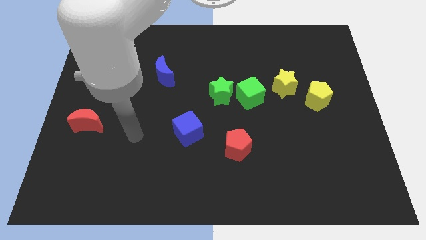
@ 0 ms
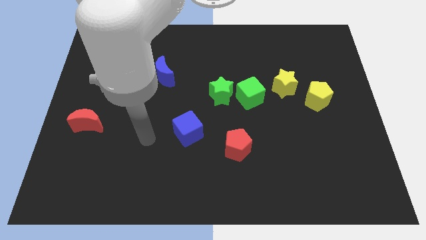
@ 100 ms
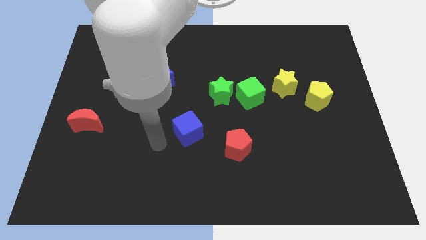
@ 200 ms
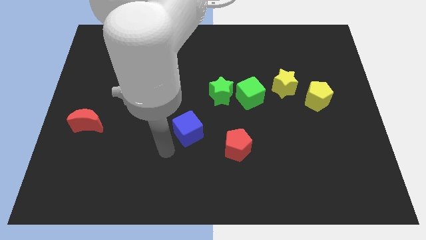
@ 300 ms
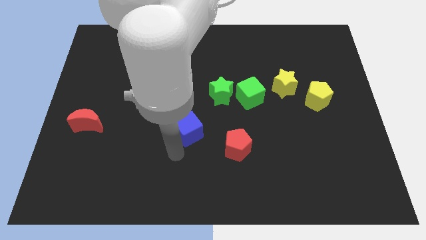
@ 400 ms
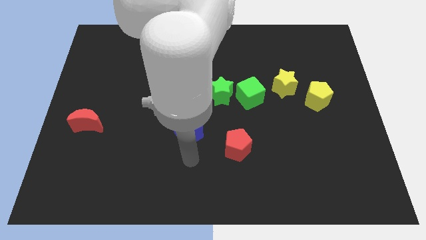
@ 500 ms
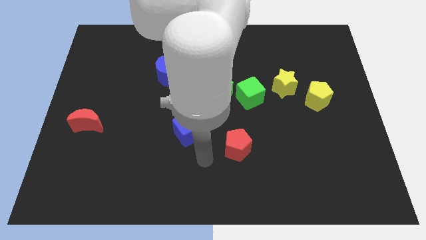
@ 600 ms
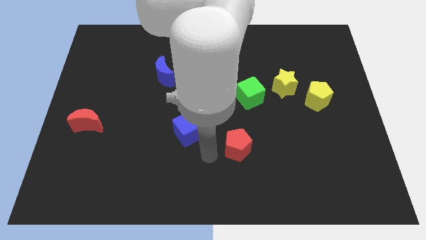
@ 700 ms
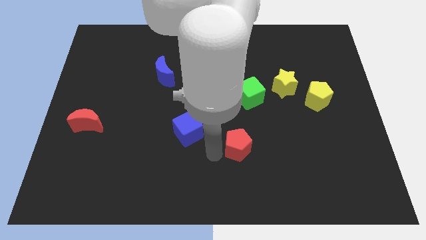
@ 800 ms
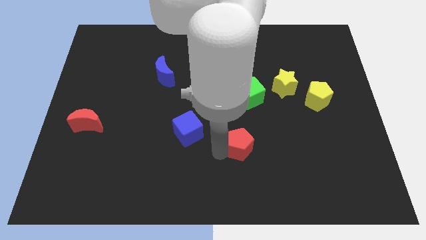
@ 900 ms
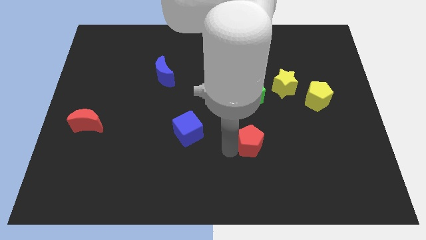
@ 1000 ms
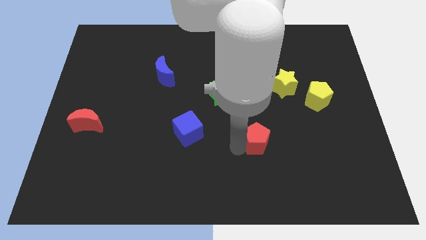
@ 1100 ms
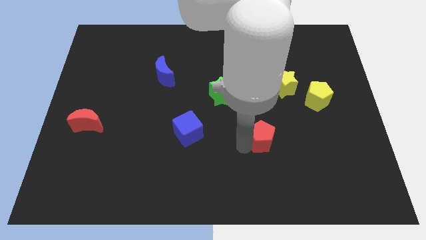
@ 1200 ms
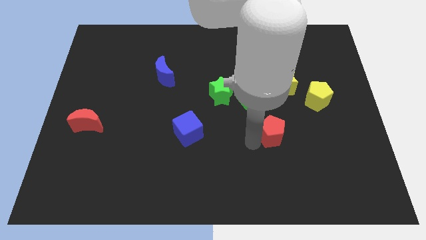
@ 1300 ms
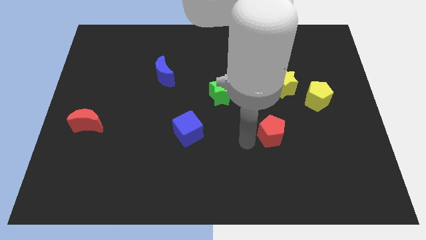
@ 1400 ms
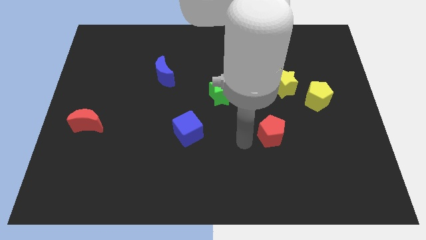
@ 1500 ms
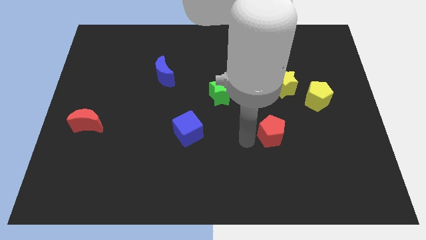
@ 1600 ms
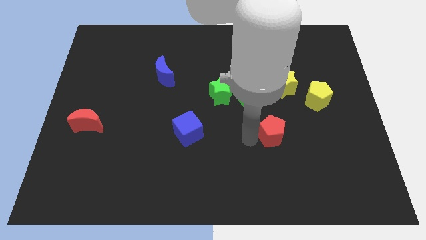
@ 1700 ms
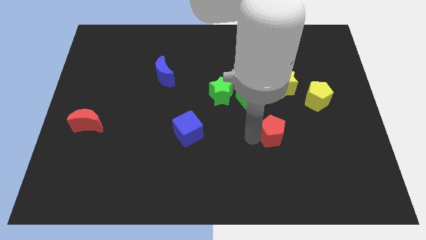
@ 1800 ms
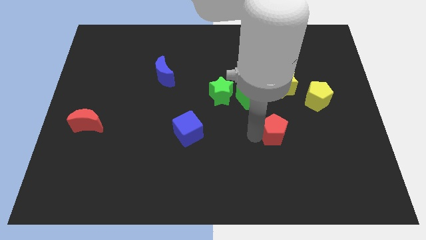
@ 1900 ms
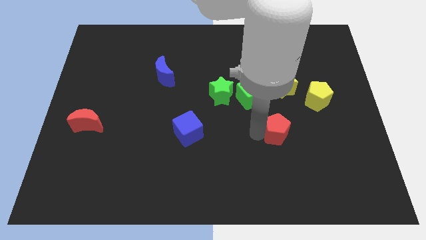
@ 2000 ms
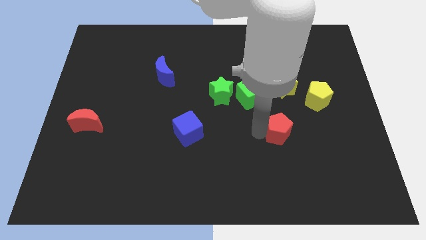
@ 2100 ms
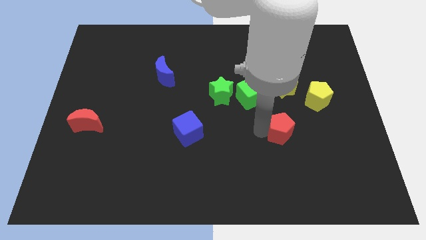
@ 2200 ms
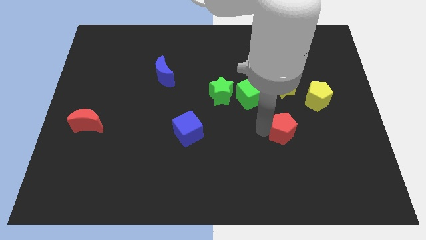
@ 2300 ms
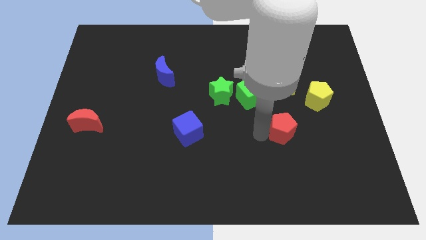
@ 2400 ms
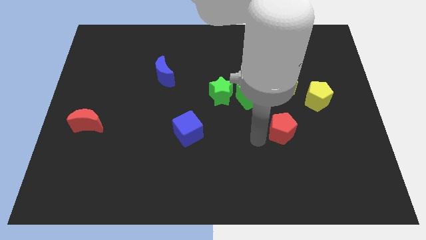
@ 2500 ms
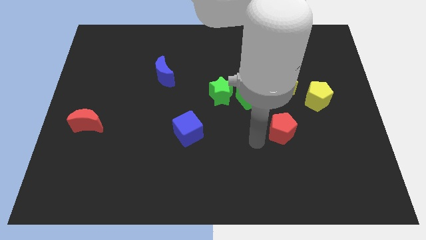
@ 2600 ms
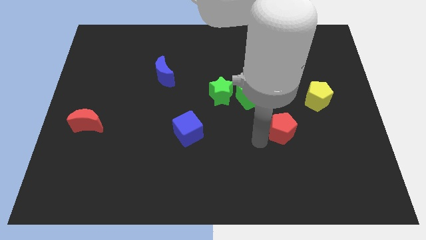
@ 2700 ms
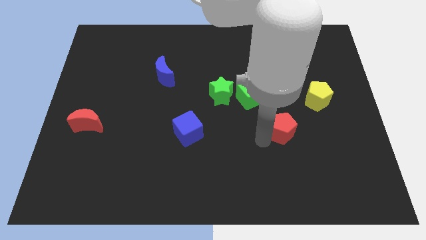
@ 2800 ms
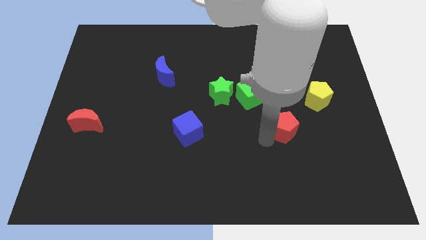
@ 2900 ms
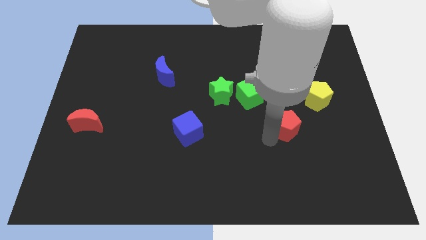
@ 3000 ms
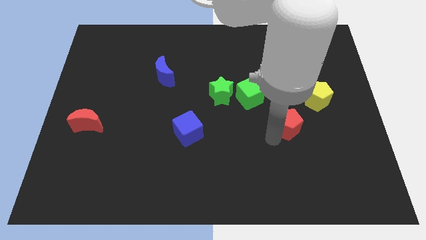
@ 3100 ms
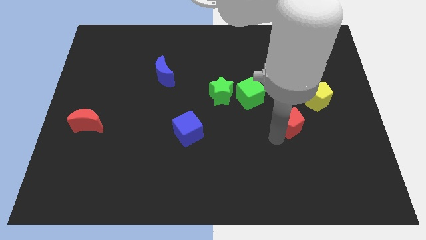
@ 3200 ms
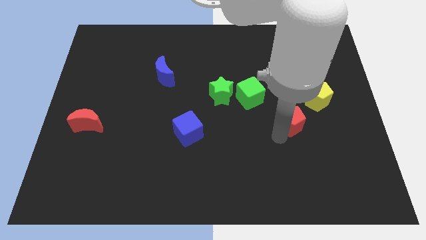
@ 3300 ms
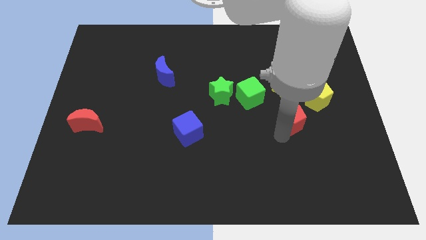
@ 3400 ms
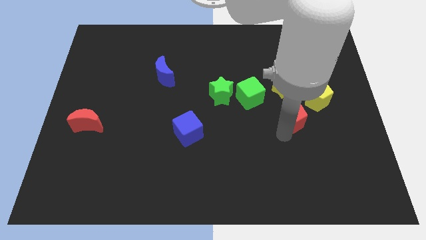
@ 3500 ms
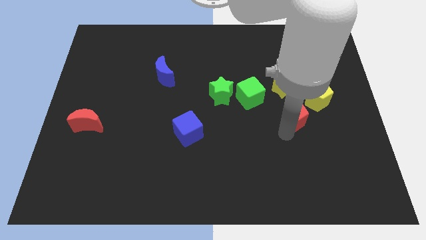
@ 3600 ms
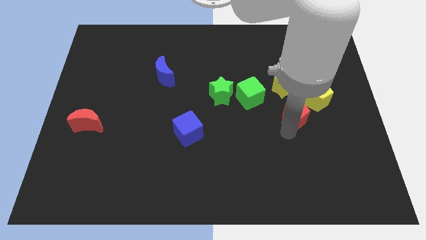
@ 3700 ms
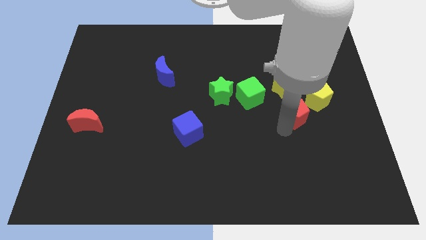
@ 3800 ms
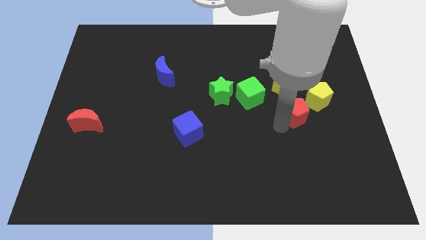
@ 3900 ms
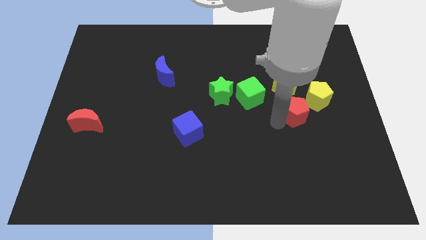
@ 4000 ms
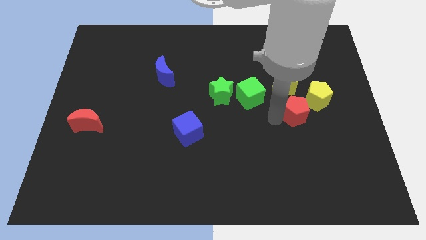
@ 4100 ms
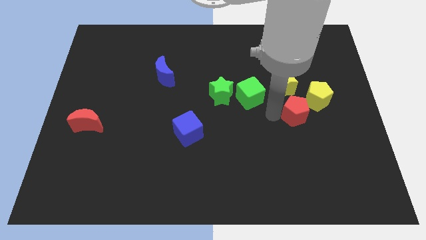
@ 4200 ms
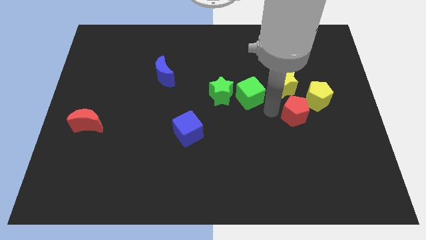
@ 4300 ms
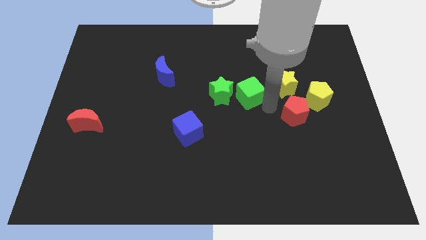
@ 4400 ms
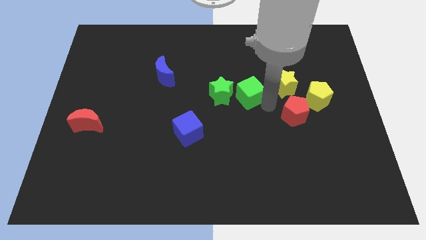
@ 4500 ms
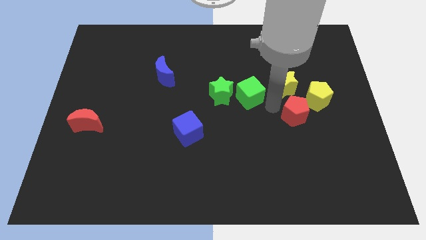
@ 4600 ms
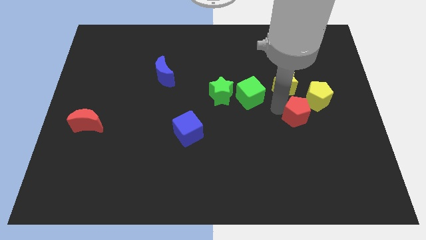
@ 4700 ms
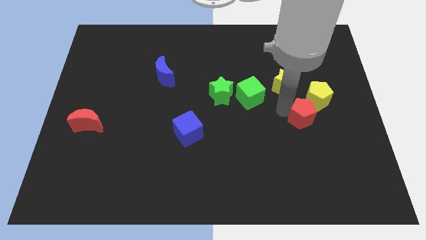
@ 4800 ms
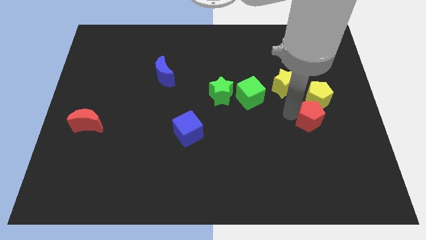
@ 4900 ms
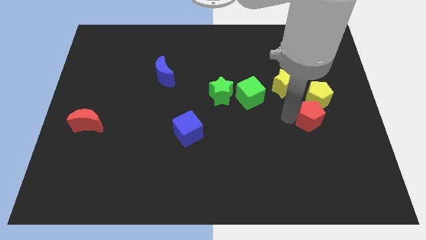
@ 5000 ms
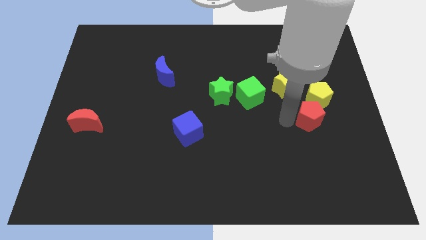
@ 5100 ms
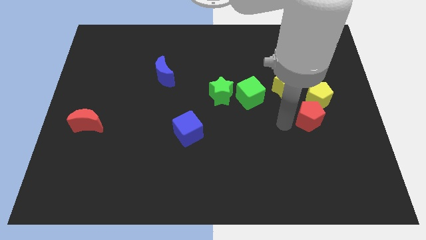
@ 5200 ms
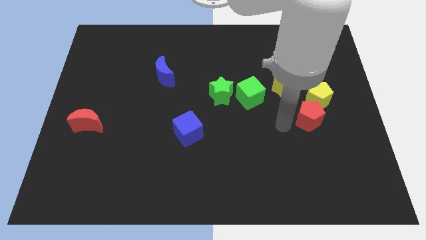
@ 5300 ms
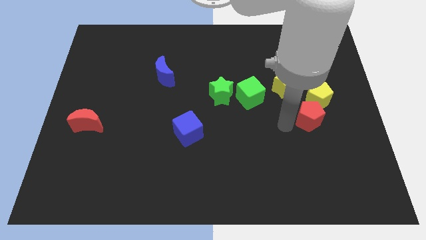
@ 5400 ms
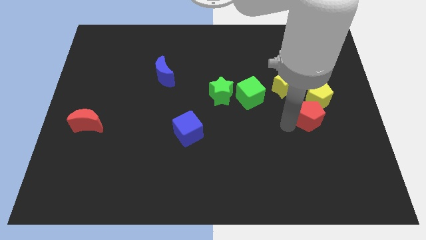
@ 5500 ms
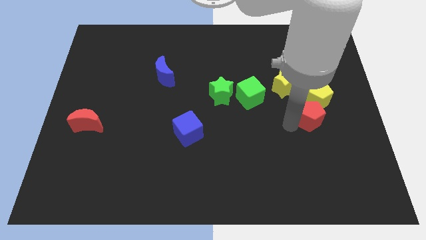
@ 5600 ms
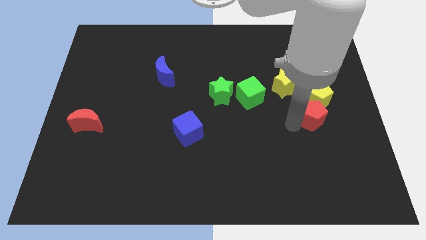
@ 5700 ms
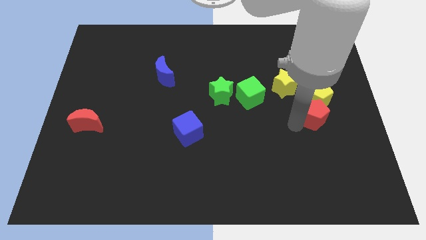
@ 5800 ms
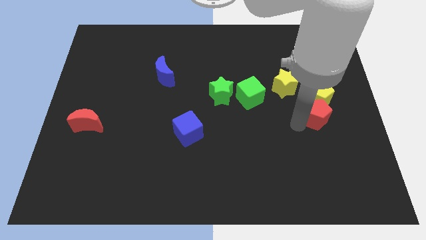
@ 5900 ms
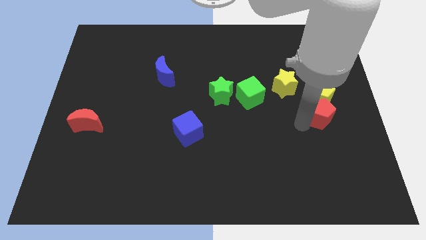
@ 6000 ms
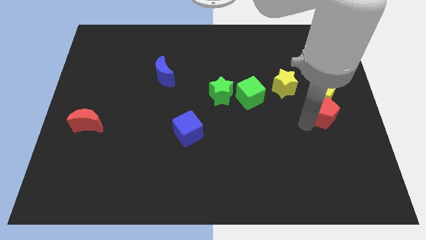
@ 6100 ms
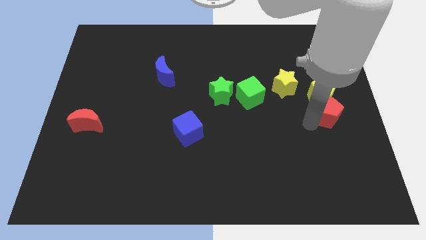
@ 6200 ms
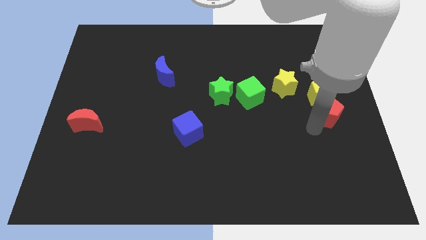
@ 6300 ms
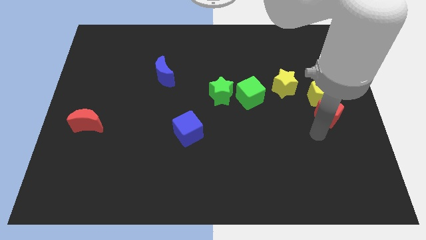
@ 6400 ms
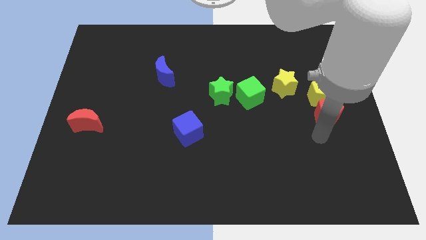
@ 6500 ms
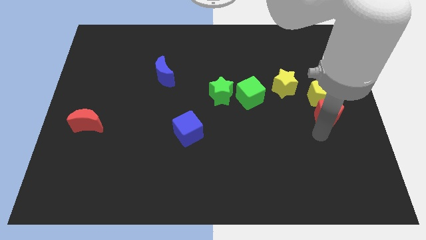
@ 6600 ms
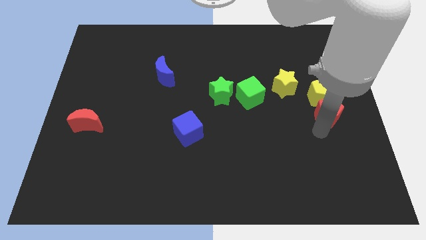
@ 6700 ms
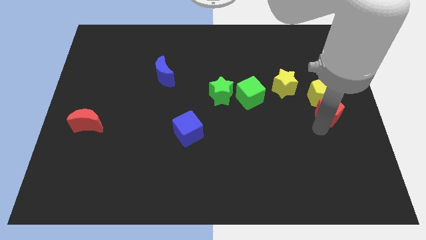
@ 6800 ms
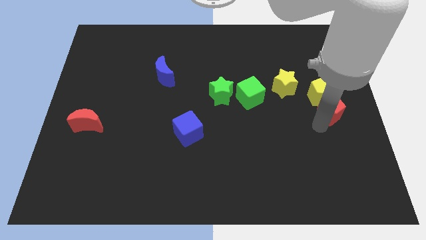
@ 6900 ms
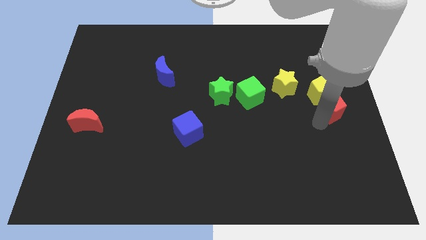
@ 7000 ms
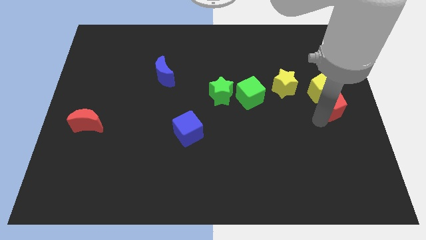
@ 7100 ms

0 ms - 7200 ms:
push the red pentagon upwards and then right

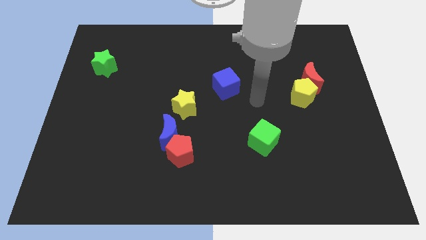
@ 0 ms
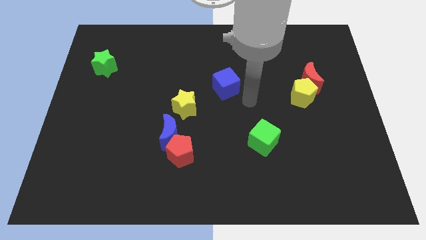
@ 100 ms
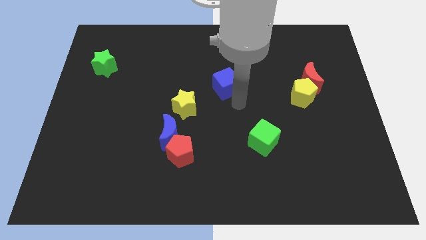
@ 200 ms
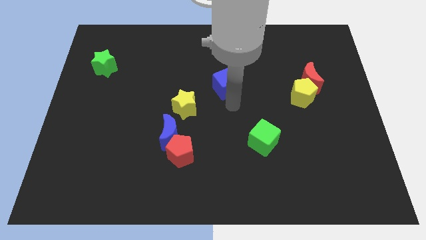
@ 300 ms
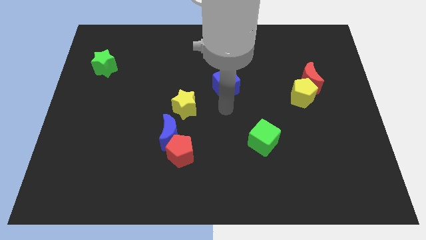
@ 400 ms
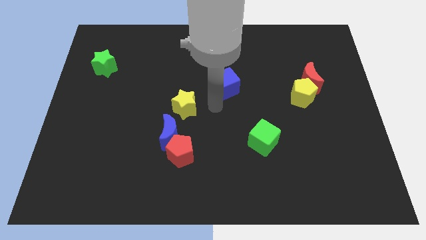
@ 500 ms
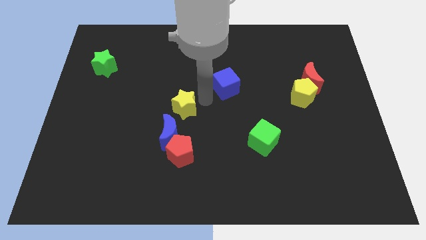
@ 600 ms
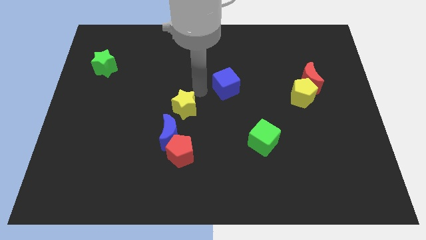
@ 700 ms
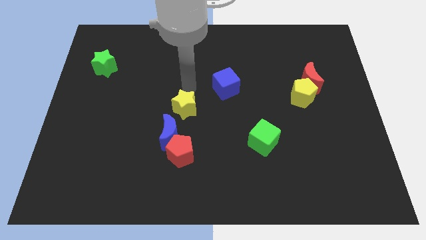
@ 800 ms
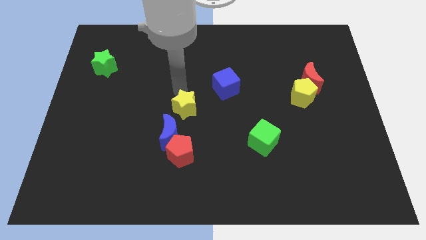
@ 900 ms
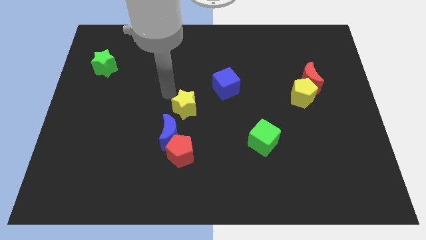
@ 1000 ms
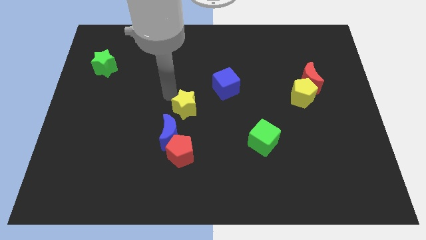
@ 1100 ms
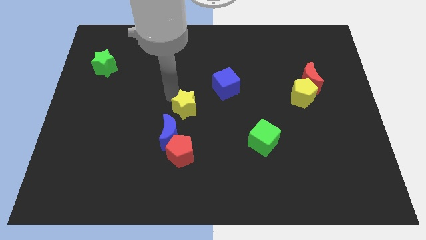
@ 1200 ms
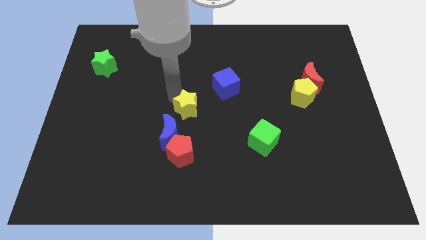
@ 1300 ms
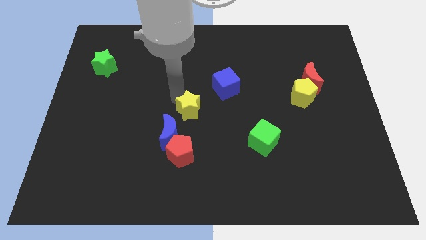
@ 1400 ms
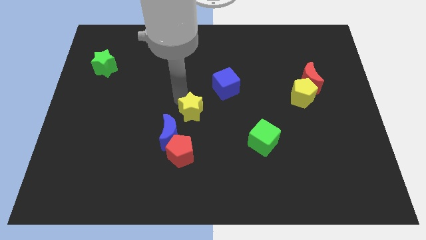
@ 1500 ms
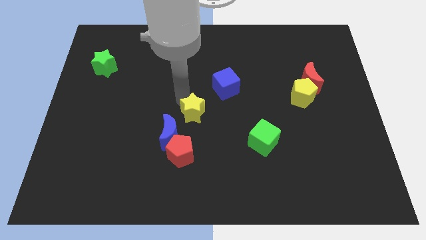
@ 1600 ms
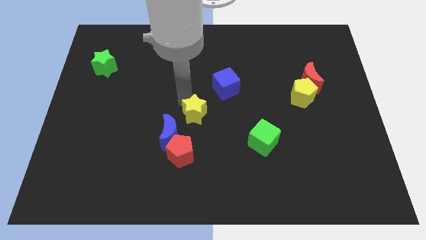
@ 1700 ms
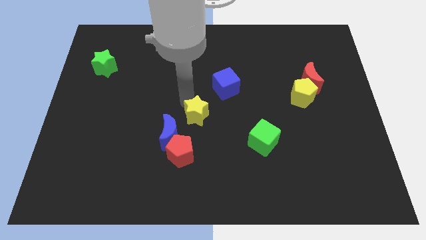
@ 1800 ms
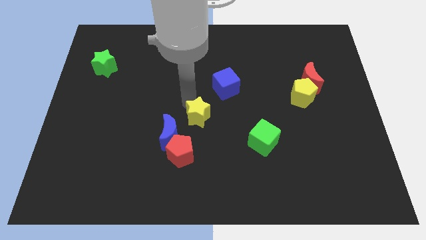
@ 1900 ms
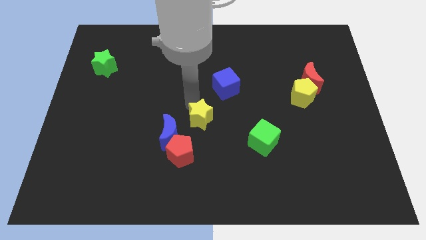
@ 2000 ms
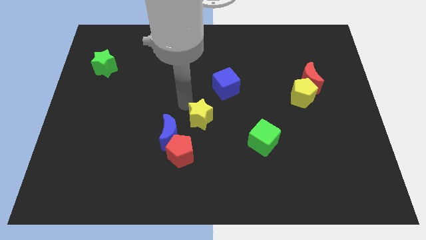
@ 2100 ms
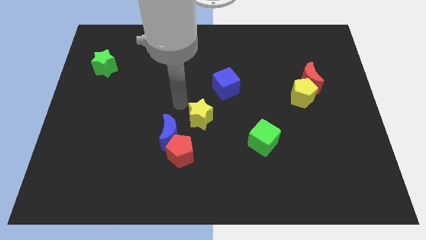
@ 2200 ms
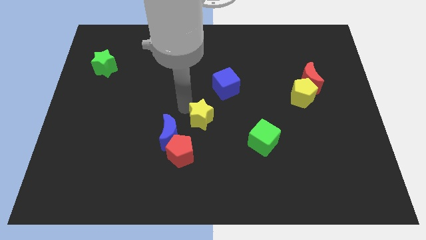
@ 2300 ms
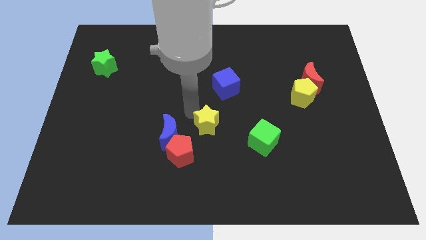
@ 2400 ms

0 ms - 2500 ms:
slightly push the yellow star diagonally down and right
